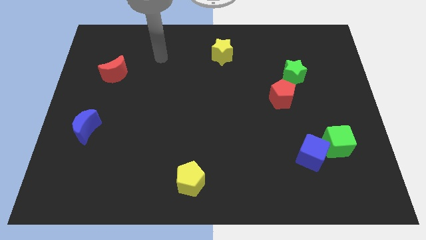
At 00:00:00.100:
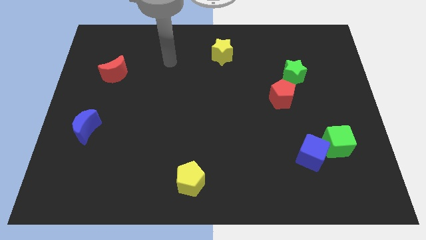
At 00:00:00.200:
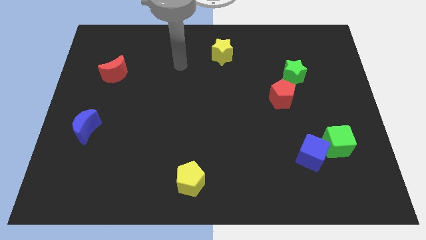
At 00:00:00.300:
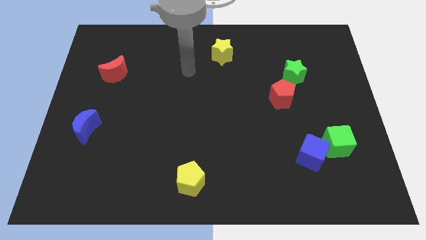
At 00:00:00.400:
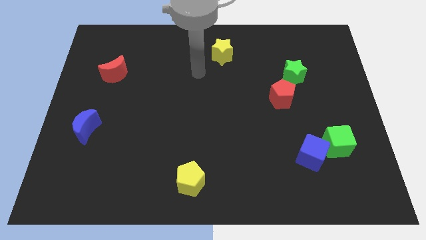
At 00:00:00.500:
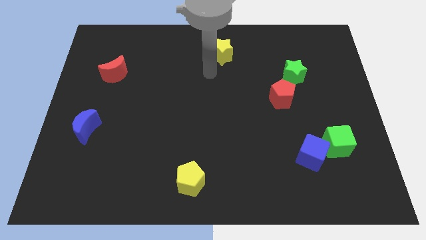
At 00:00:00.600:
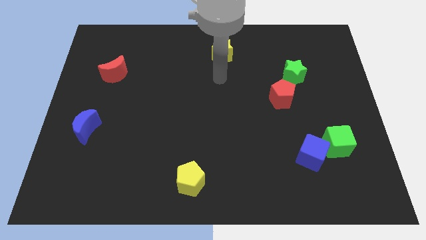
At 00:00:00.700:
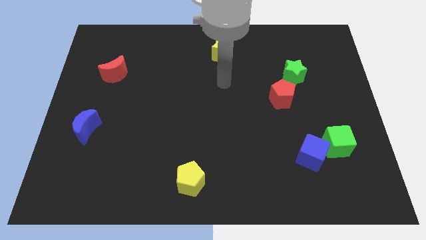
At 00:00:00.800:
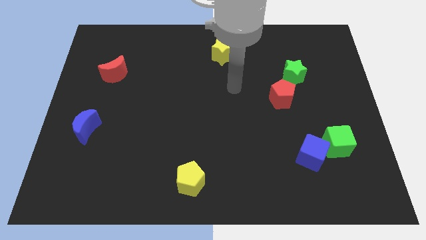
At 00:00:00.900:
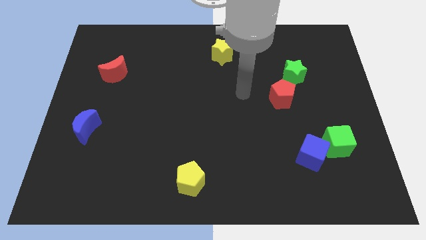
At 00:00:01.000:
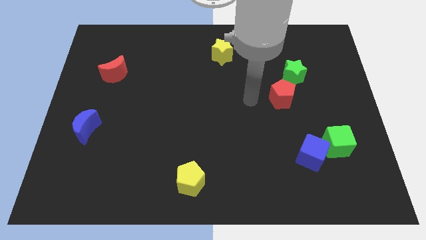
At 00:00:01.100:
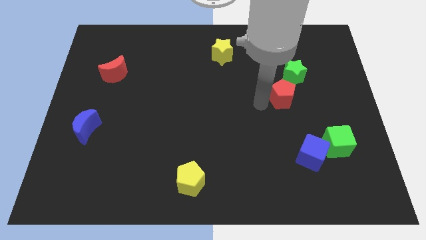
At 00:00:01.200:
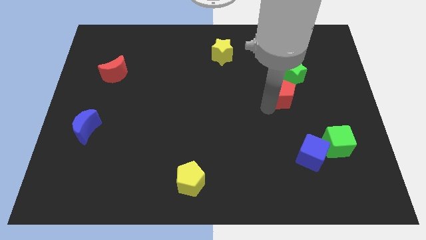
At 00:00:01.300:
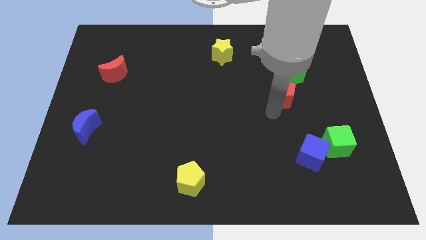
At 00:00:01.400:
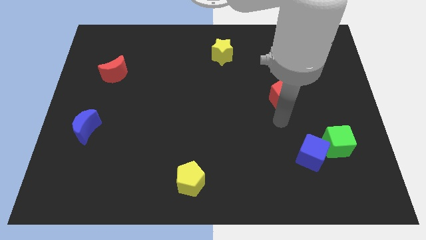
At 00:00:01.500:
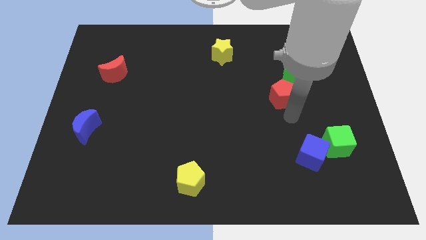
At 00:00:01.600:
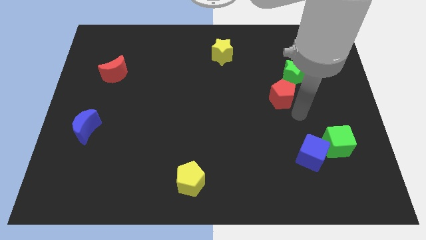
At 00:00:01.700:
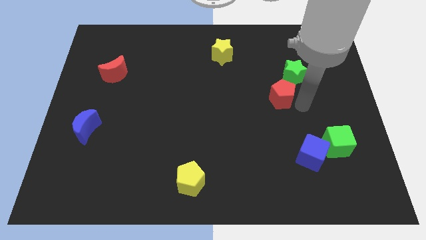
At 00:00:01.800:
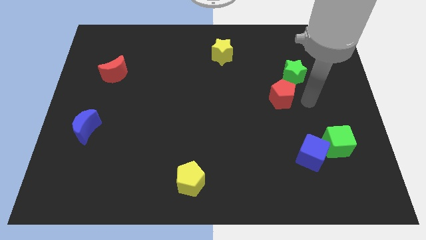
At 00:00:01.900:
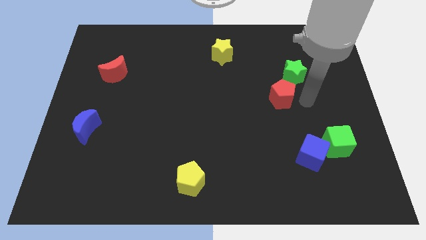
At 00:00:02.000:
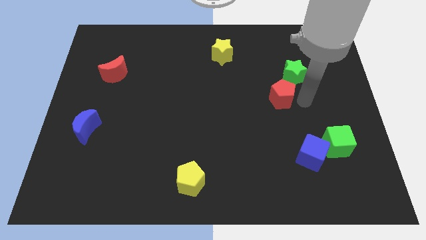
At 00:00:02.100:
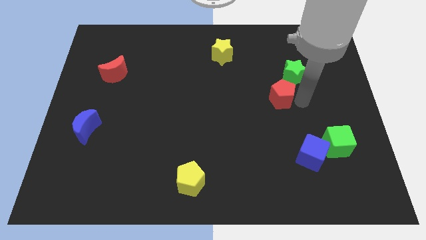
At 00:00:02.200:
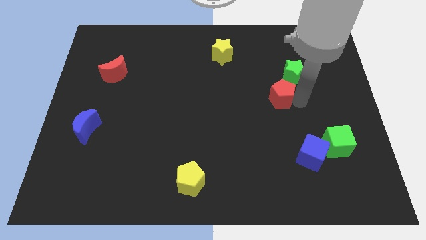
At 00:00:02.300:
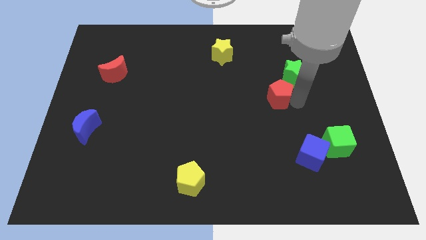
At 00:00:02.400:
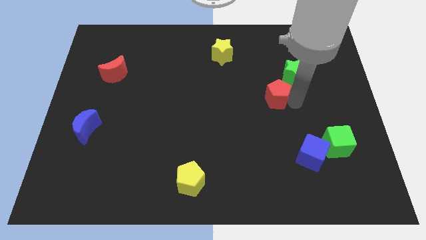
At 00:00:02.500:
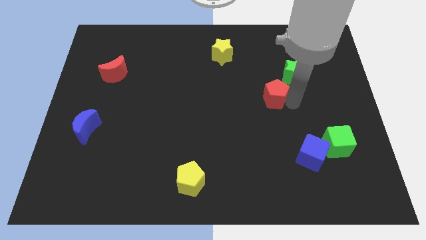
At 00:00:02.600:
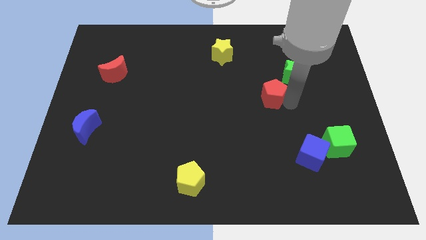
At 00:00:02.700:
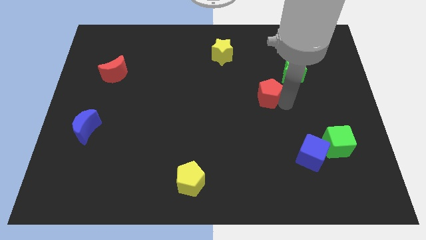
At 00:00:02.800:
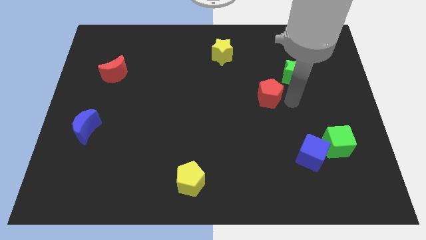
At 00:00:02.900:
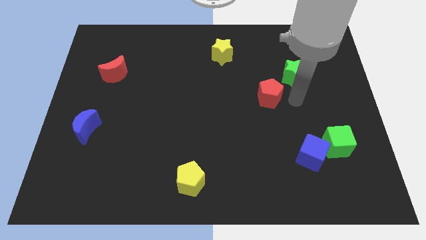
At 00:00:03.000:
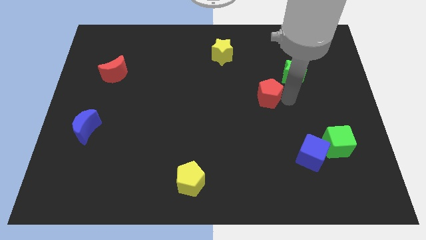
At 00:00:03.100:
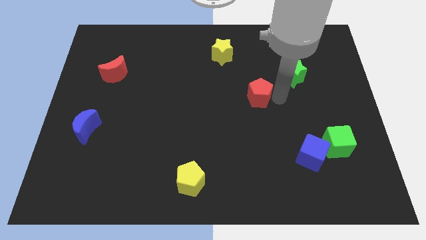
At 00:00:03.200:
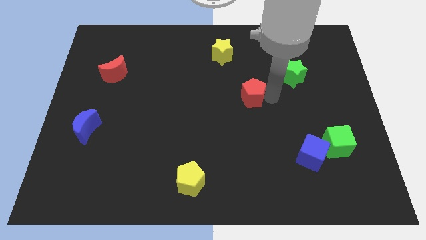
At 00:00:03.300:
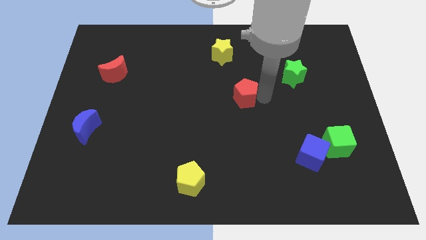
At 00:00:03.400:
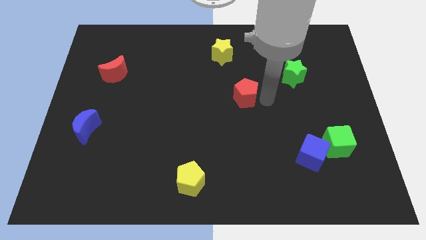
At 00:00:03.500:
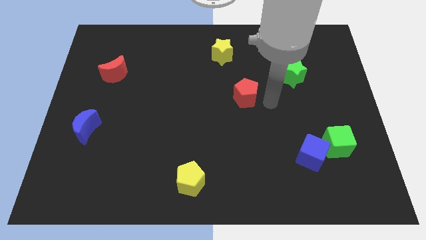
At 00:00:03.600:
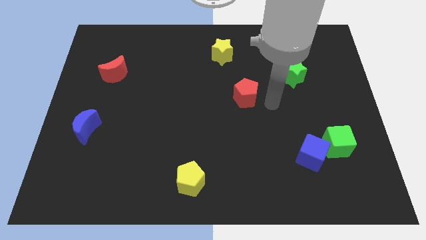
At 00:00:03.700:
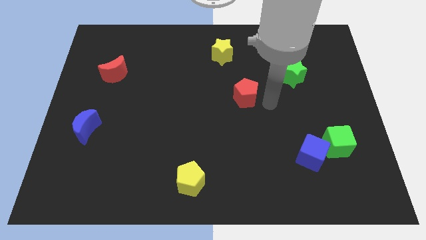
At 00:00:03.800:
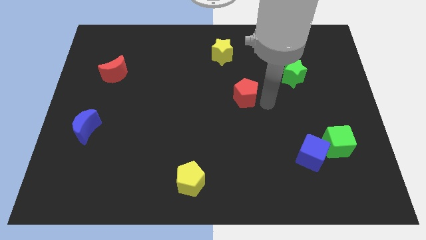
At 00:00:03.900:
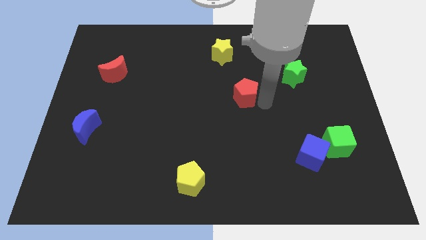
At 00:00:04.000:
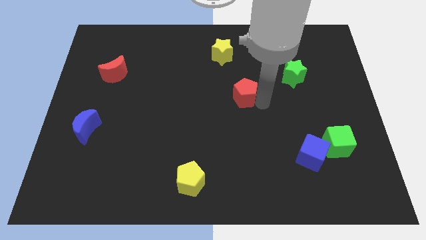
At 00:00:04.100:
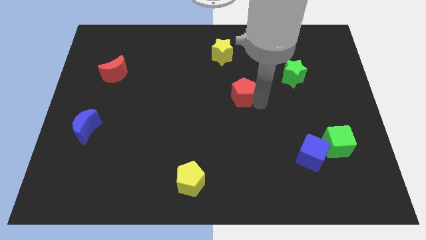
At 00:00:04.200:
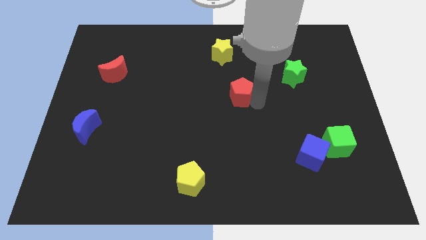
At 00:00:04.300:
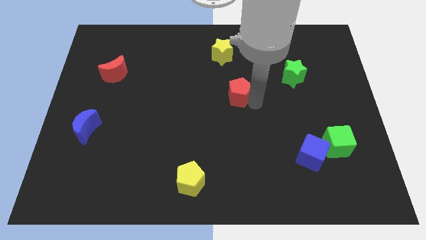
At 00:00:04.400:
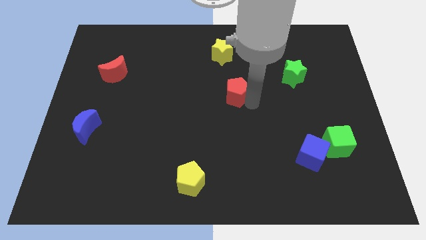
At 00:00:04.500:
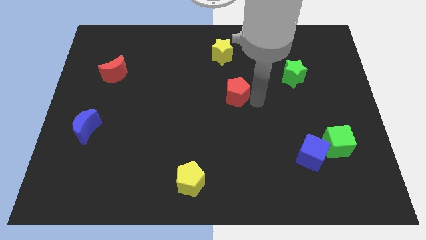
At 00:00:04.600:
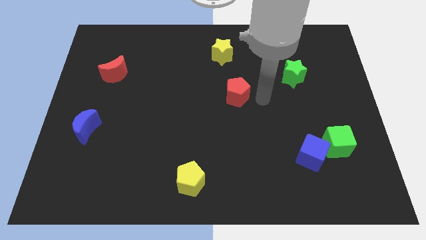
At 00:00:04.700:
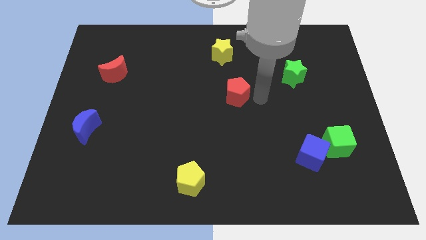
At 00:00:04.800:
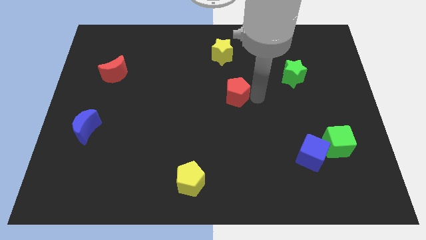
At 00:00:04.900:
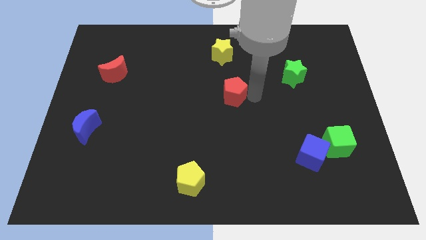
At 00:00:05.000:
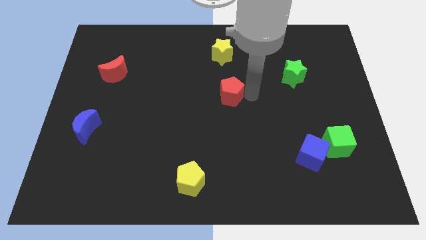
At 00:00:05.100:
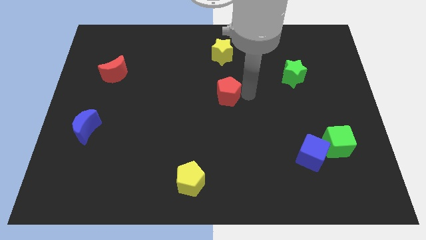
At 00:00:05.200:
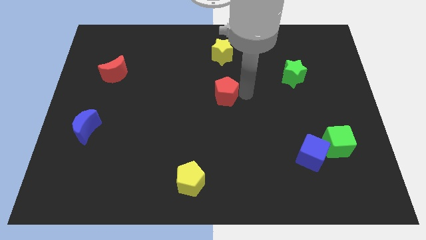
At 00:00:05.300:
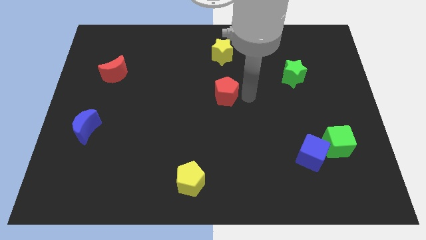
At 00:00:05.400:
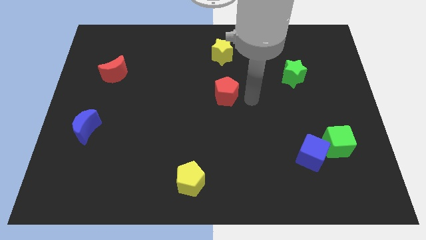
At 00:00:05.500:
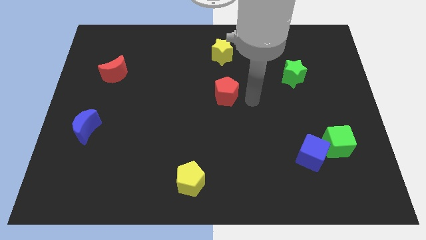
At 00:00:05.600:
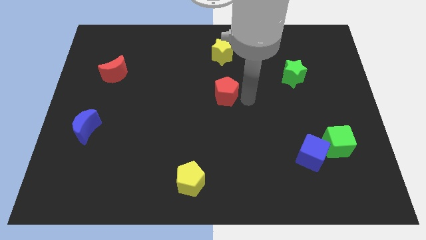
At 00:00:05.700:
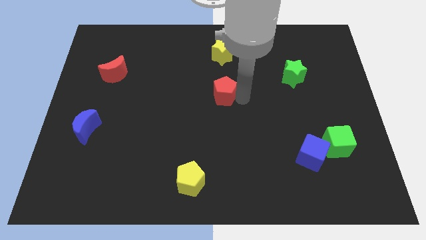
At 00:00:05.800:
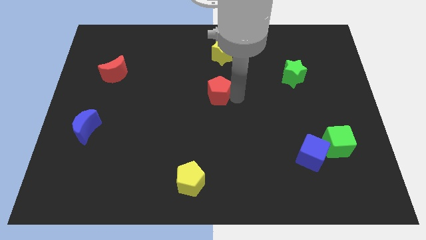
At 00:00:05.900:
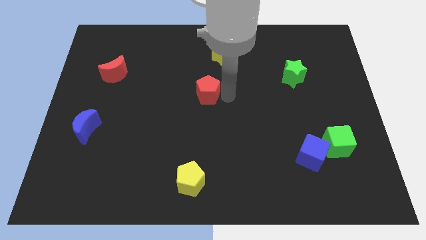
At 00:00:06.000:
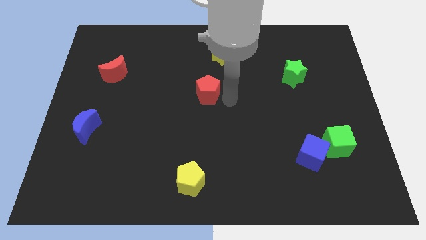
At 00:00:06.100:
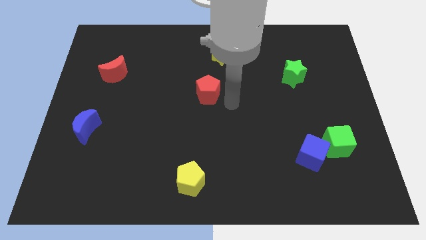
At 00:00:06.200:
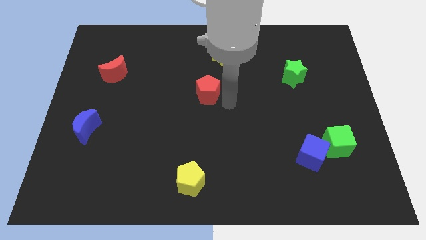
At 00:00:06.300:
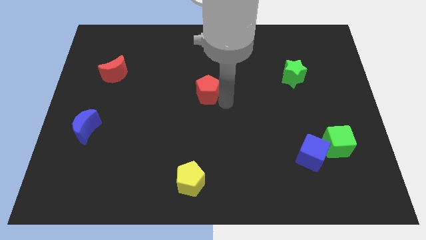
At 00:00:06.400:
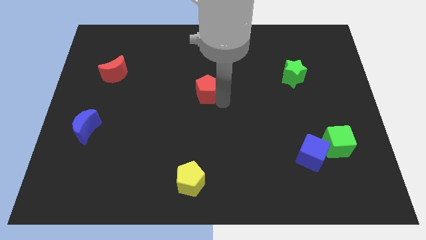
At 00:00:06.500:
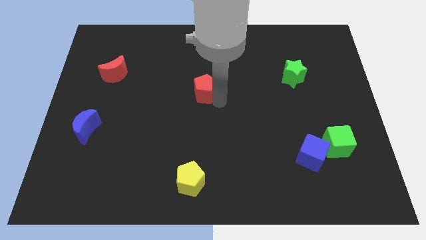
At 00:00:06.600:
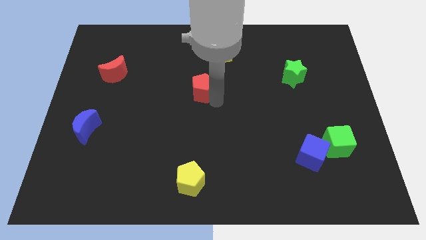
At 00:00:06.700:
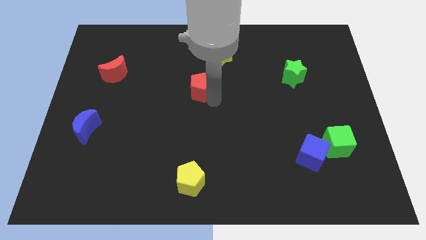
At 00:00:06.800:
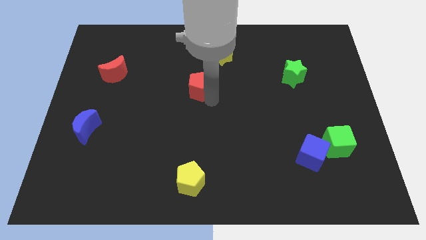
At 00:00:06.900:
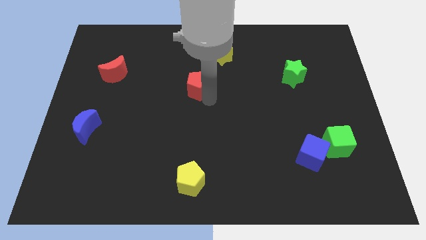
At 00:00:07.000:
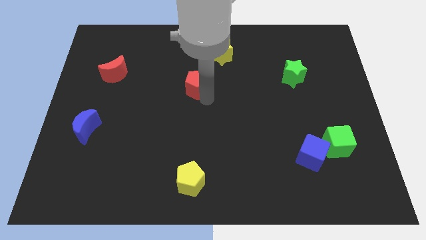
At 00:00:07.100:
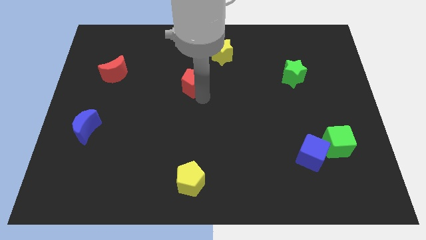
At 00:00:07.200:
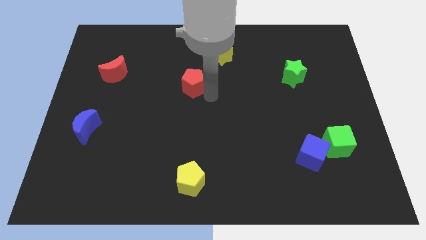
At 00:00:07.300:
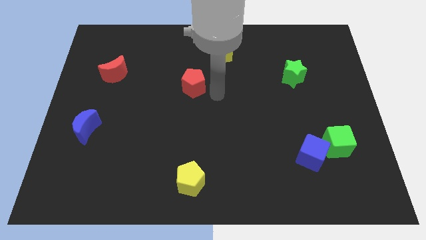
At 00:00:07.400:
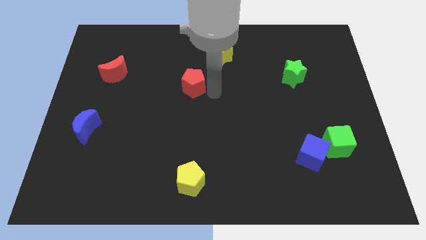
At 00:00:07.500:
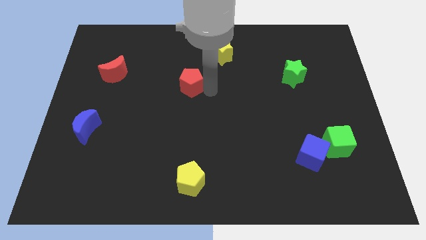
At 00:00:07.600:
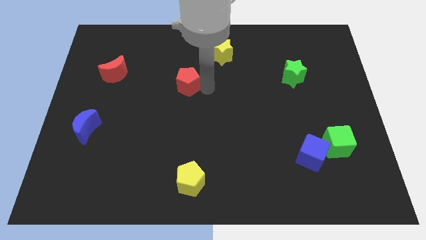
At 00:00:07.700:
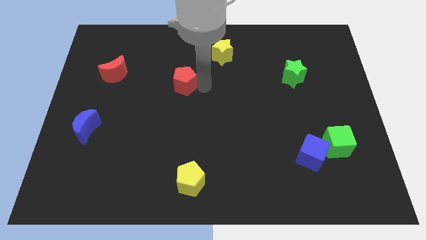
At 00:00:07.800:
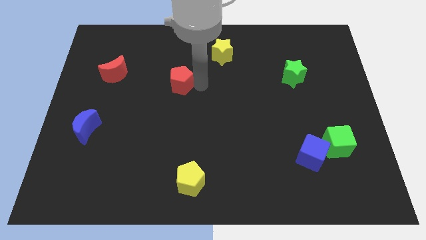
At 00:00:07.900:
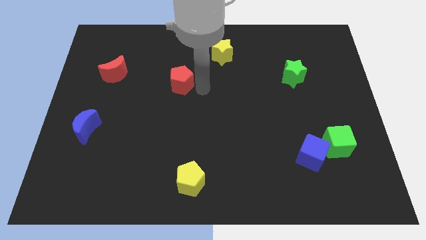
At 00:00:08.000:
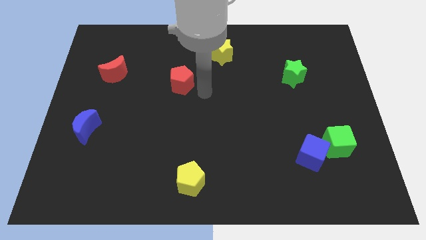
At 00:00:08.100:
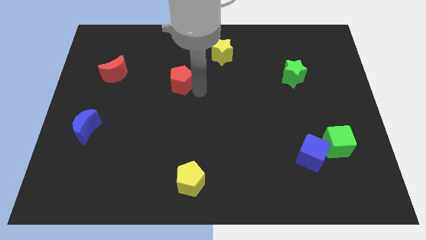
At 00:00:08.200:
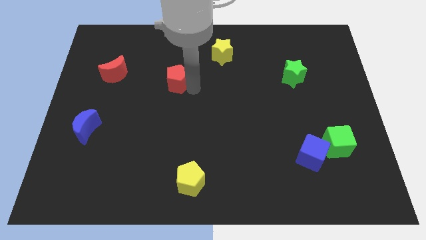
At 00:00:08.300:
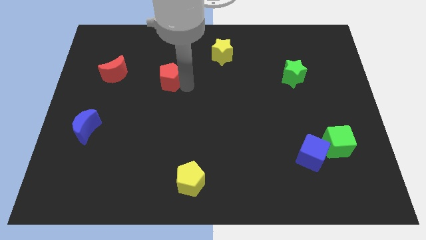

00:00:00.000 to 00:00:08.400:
put the red pentagon to the right side of the red moon
